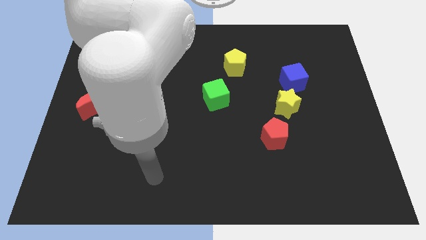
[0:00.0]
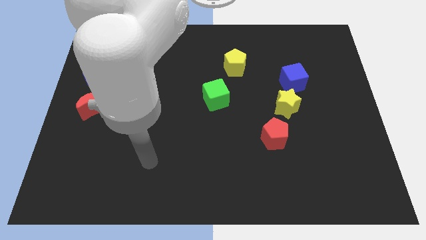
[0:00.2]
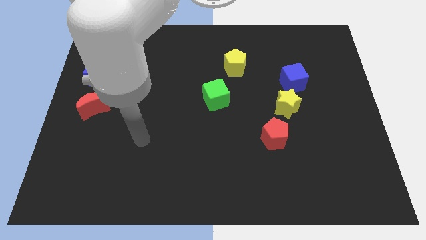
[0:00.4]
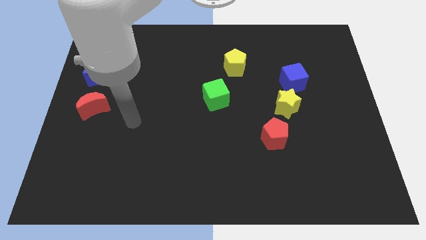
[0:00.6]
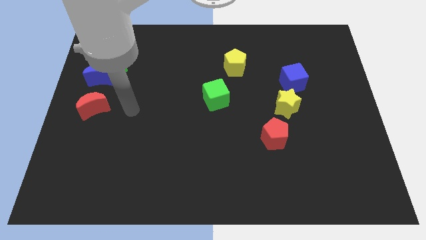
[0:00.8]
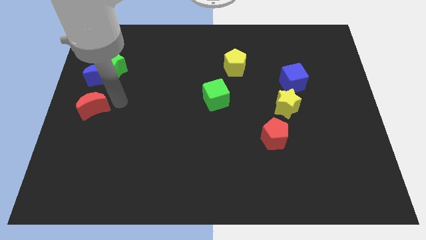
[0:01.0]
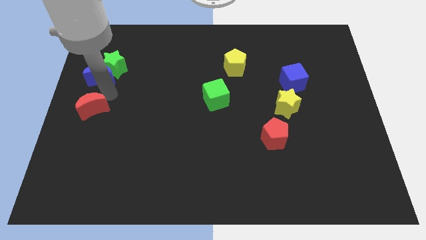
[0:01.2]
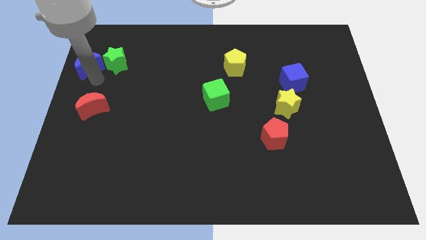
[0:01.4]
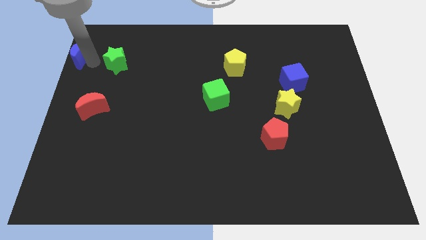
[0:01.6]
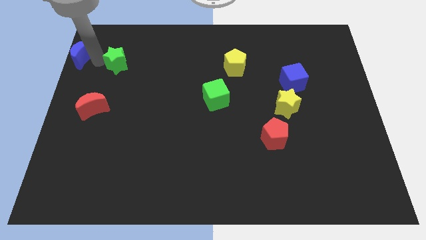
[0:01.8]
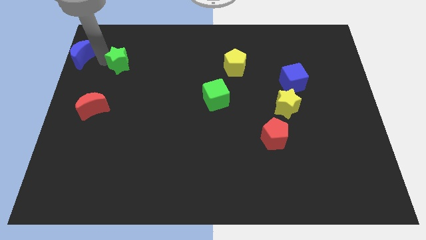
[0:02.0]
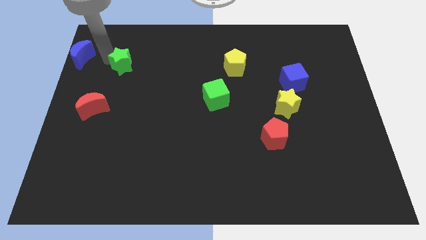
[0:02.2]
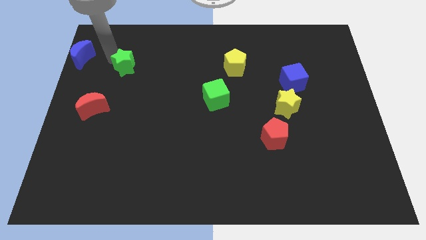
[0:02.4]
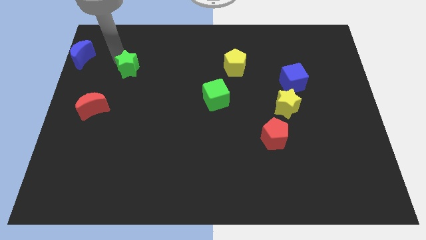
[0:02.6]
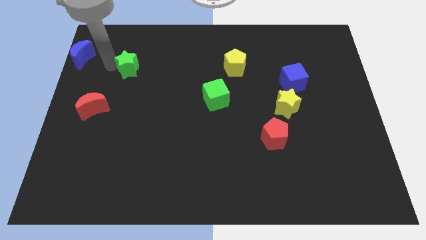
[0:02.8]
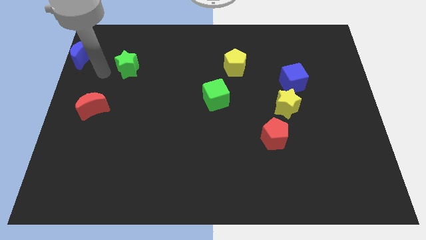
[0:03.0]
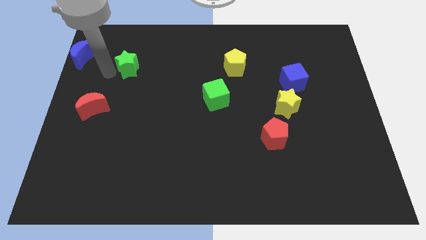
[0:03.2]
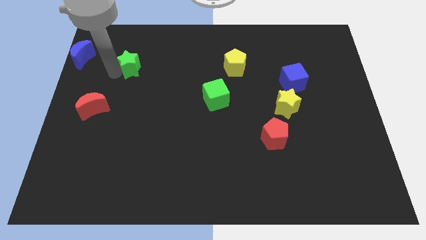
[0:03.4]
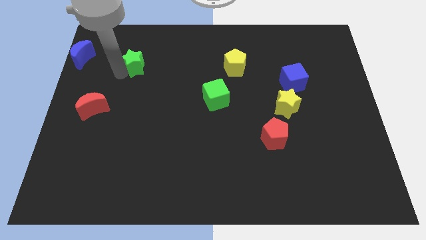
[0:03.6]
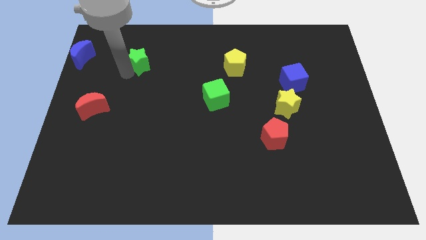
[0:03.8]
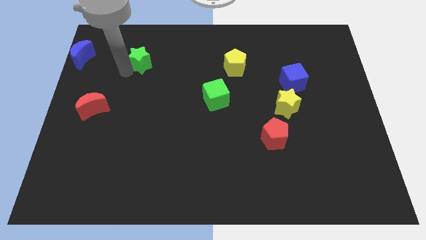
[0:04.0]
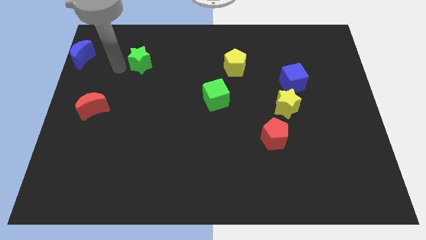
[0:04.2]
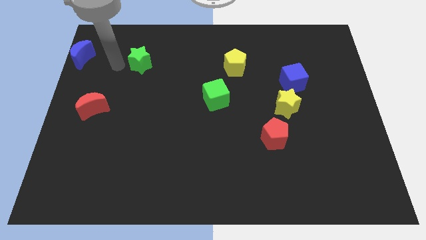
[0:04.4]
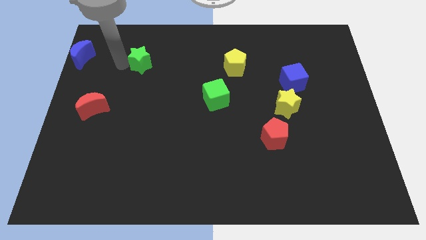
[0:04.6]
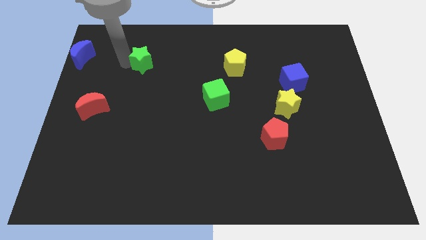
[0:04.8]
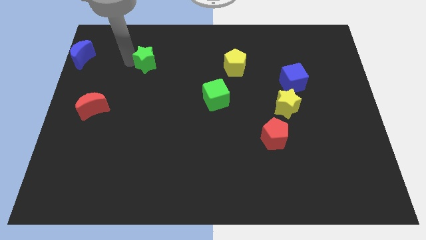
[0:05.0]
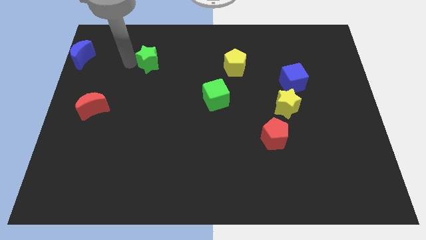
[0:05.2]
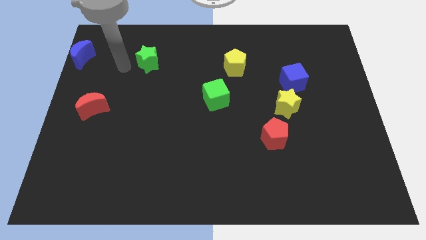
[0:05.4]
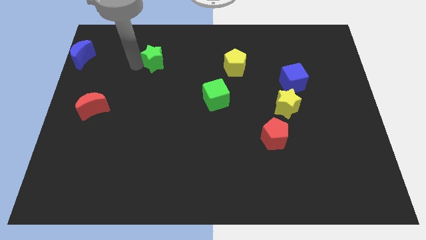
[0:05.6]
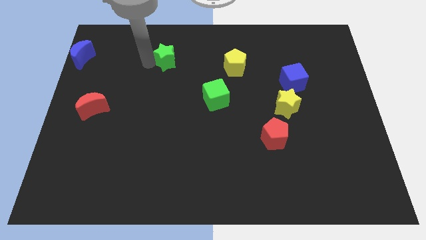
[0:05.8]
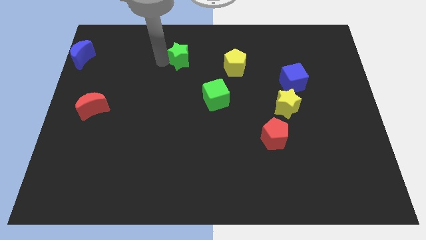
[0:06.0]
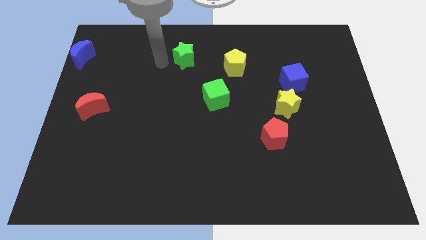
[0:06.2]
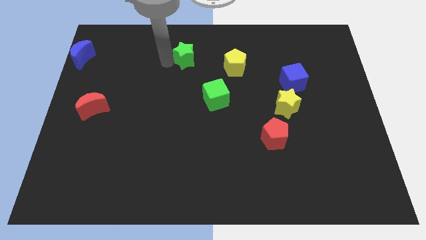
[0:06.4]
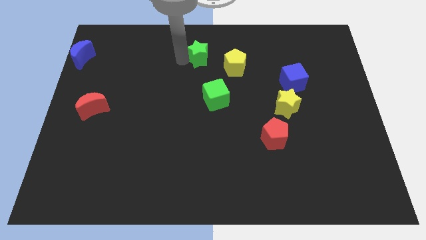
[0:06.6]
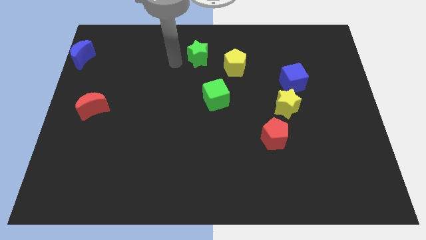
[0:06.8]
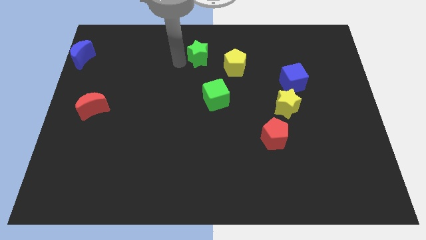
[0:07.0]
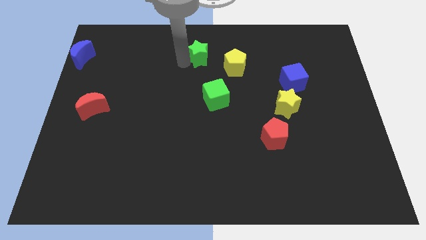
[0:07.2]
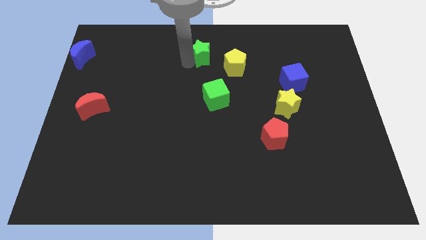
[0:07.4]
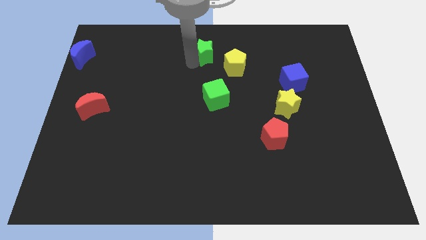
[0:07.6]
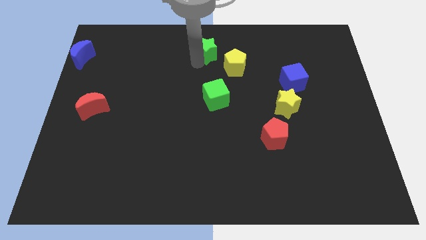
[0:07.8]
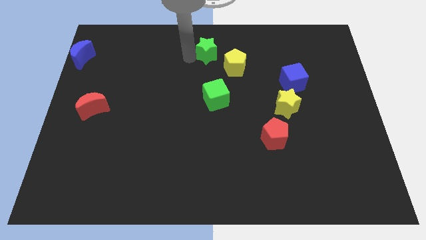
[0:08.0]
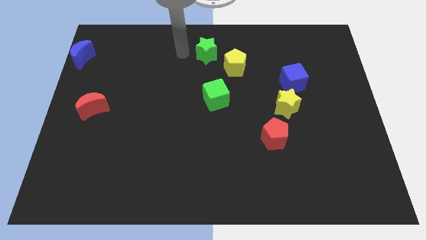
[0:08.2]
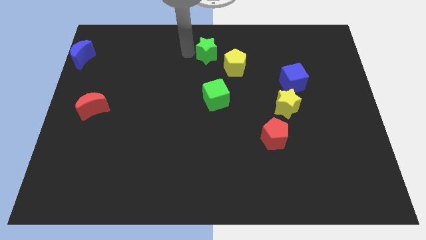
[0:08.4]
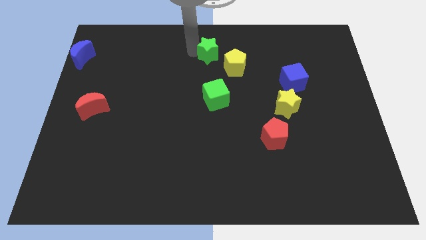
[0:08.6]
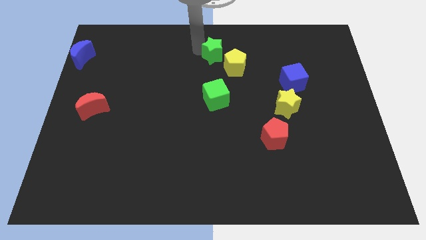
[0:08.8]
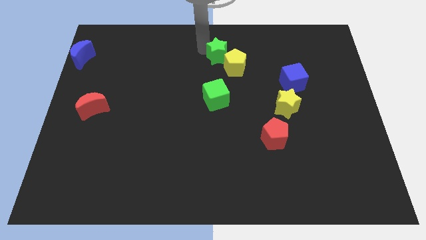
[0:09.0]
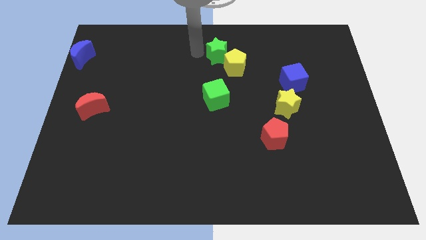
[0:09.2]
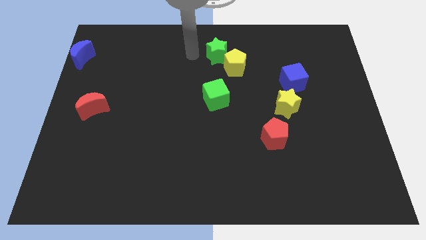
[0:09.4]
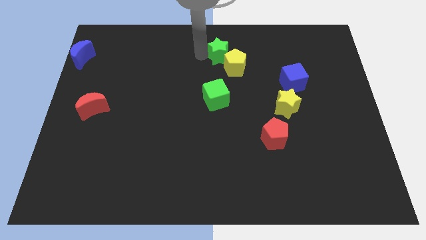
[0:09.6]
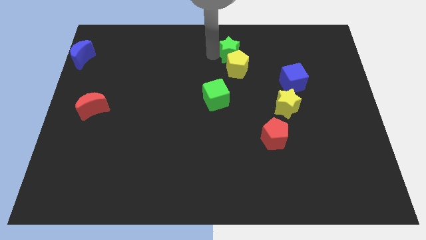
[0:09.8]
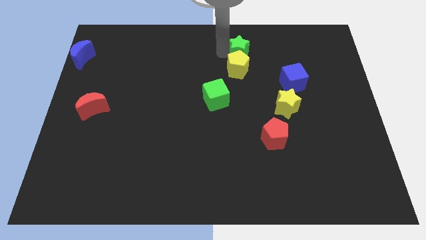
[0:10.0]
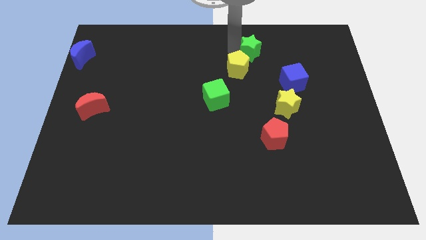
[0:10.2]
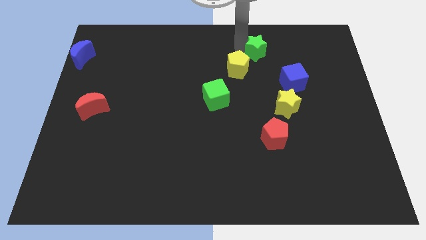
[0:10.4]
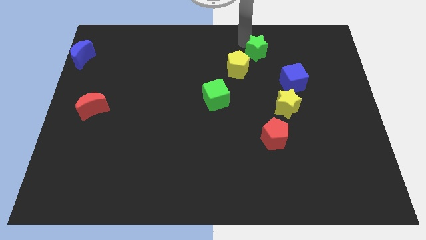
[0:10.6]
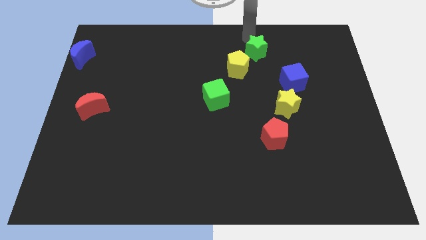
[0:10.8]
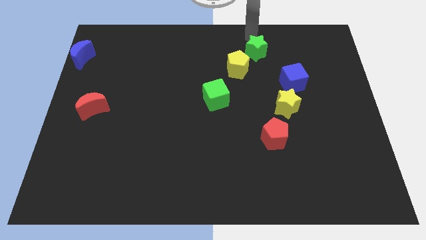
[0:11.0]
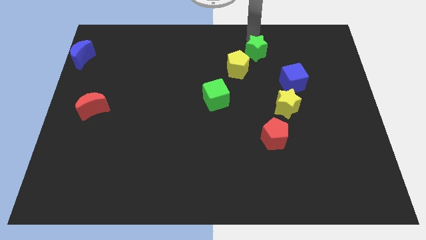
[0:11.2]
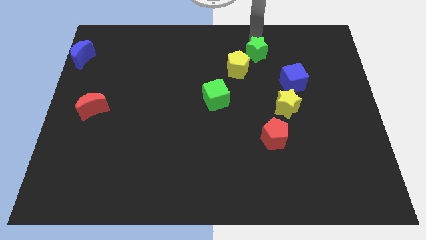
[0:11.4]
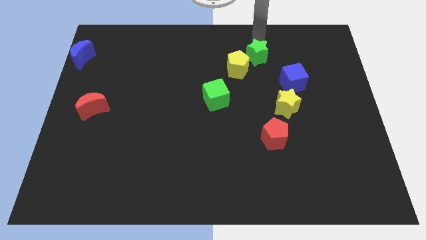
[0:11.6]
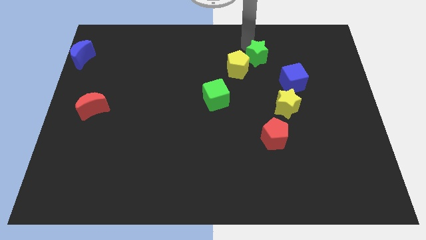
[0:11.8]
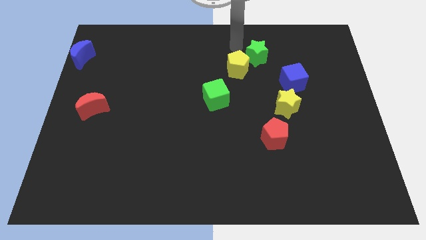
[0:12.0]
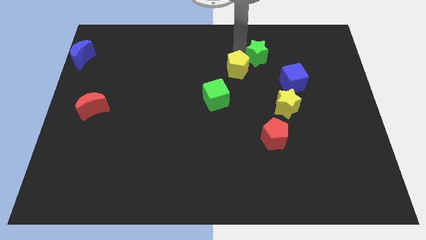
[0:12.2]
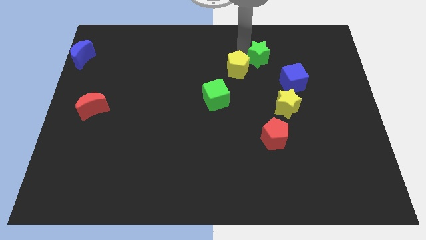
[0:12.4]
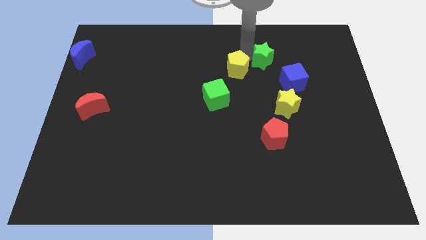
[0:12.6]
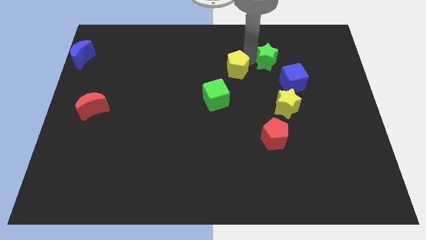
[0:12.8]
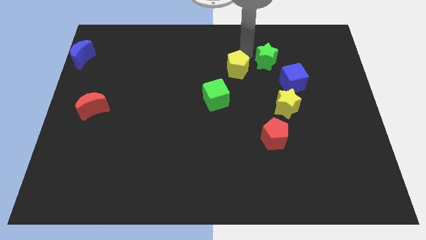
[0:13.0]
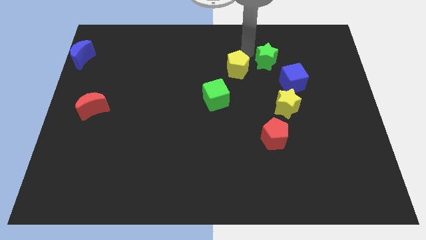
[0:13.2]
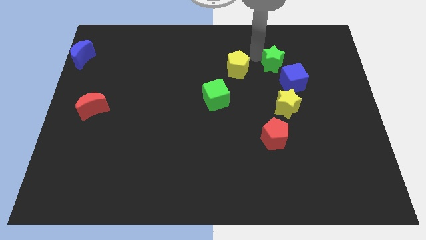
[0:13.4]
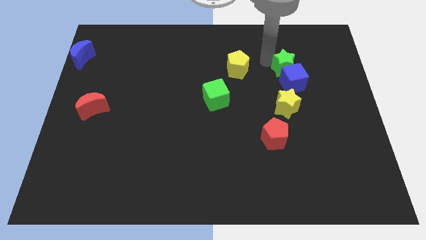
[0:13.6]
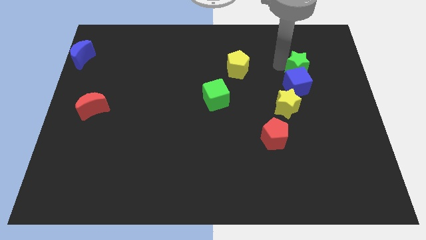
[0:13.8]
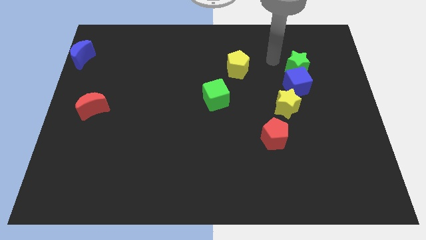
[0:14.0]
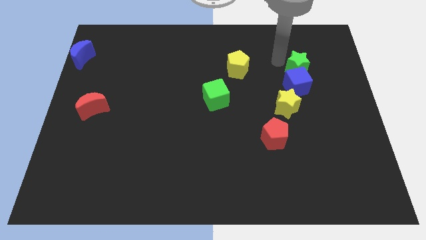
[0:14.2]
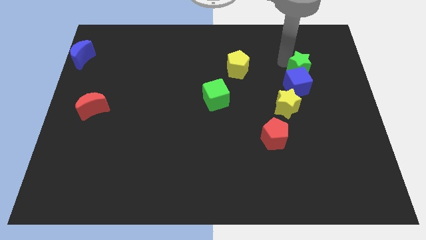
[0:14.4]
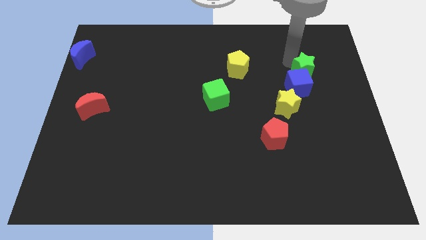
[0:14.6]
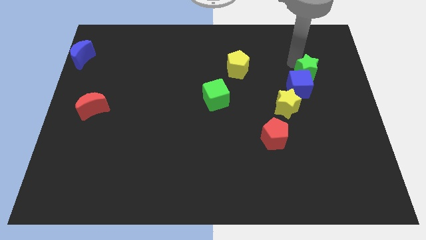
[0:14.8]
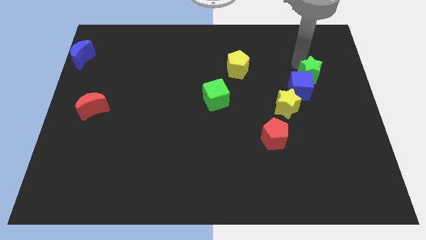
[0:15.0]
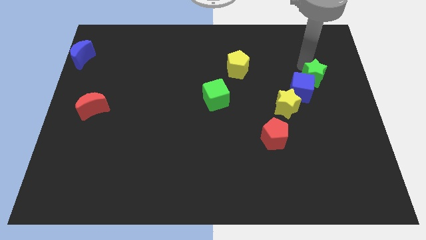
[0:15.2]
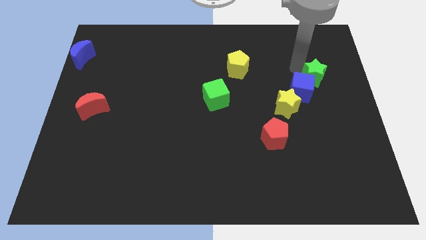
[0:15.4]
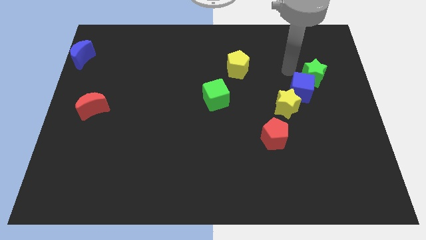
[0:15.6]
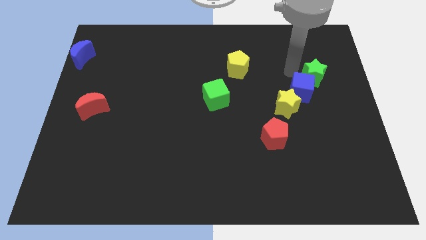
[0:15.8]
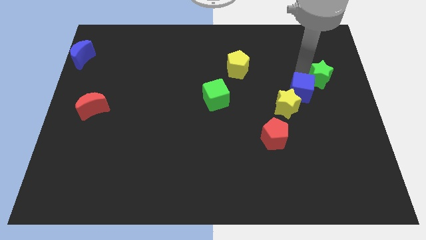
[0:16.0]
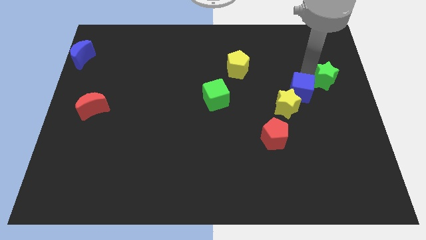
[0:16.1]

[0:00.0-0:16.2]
push the green star to the right side
